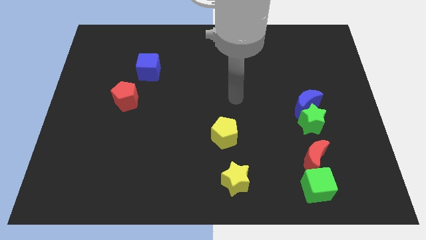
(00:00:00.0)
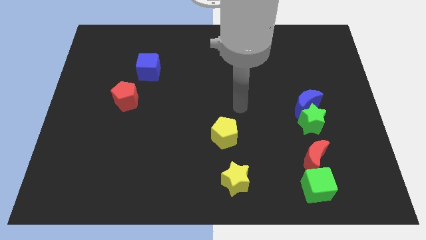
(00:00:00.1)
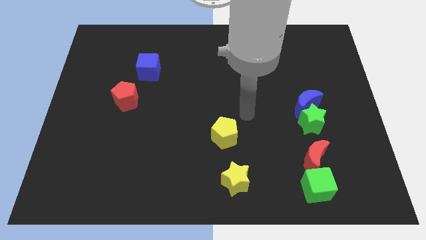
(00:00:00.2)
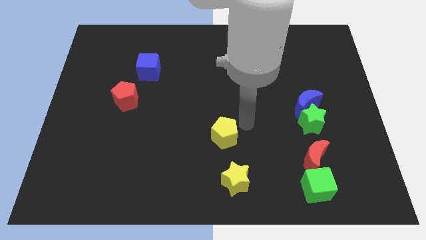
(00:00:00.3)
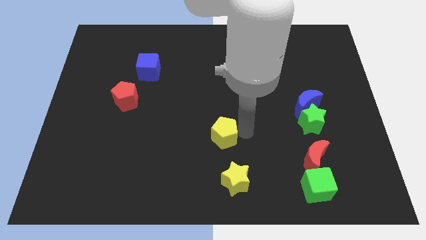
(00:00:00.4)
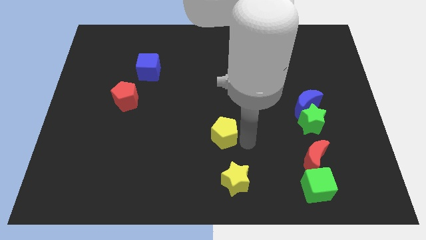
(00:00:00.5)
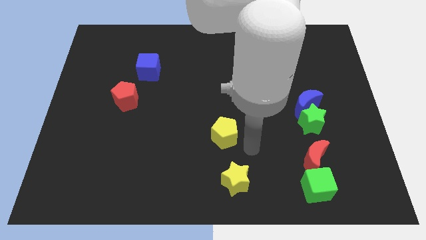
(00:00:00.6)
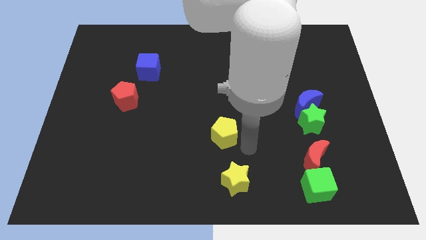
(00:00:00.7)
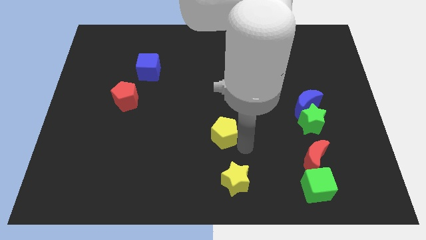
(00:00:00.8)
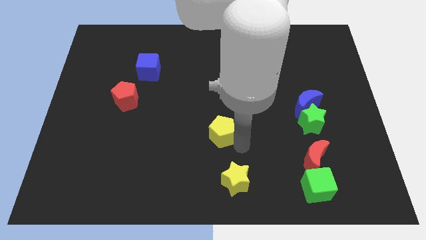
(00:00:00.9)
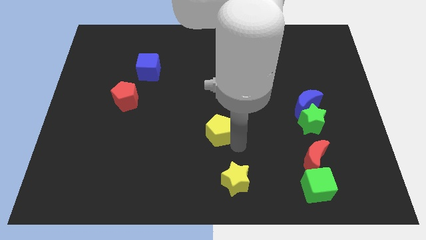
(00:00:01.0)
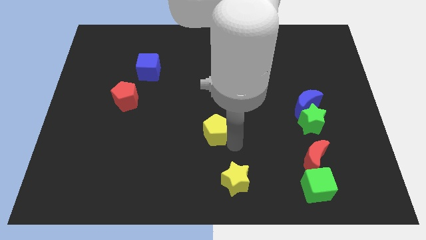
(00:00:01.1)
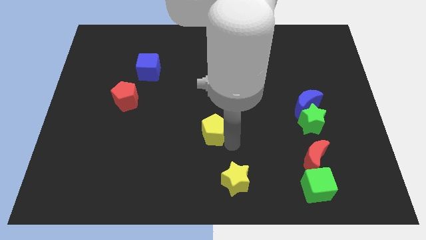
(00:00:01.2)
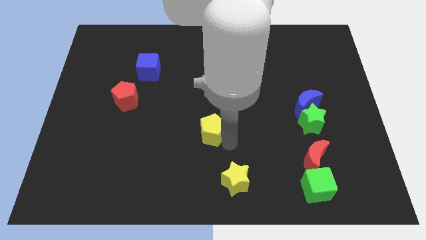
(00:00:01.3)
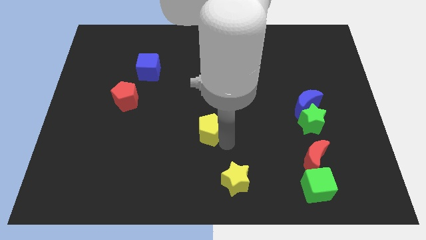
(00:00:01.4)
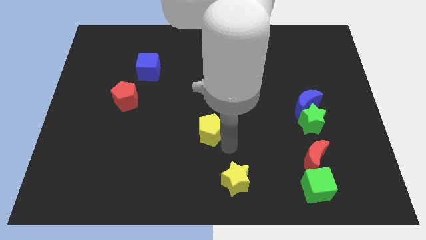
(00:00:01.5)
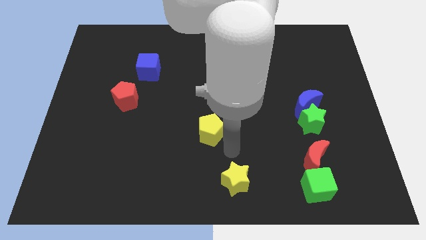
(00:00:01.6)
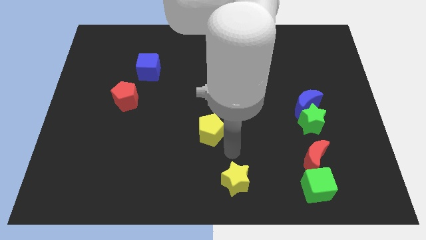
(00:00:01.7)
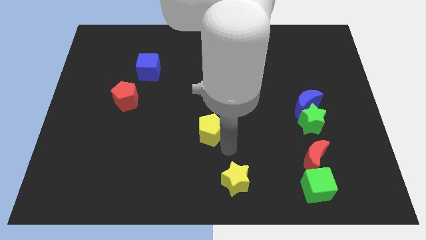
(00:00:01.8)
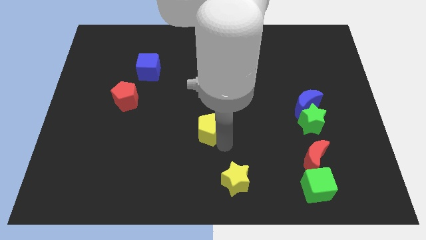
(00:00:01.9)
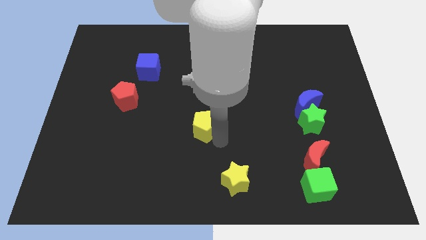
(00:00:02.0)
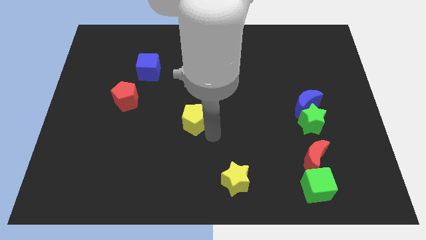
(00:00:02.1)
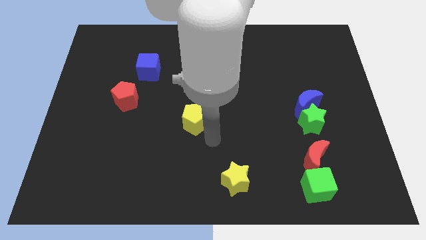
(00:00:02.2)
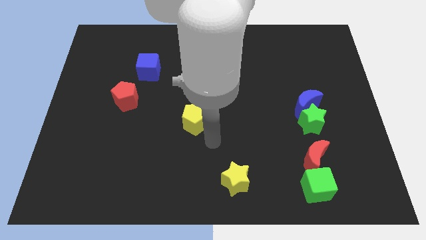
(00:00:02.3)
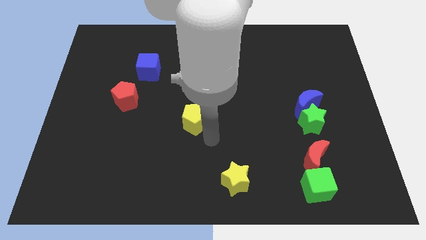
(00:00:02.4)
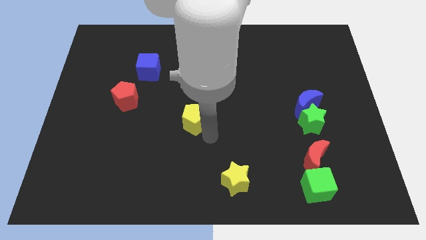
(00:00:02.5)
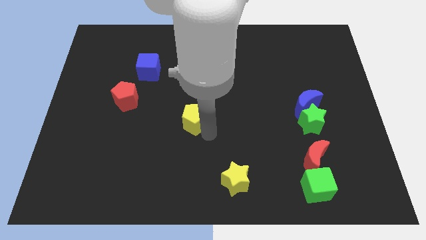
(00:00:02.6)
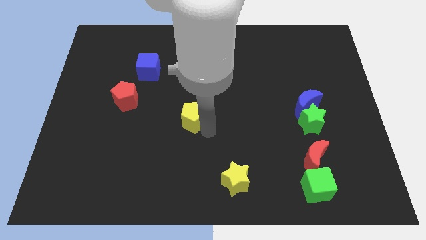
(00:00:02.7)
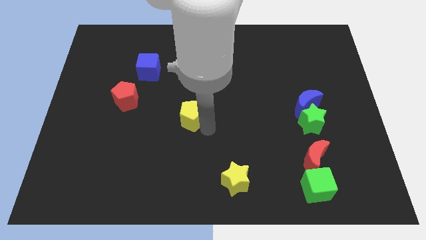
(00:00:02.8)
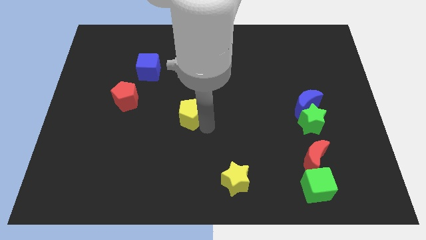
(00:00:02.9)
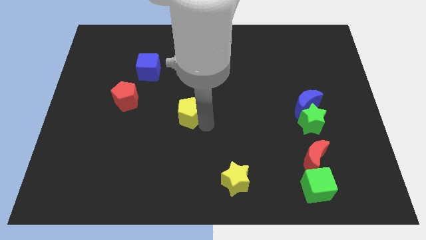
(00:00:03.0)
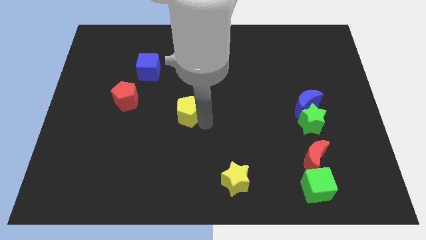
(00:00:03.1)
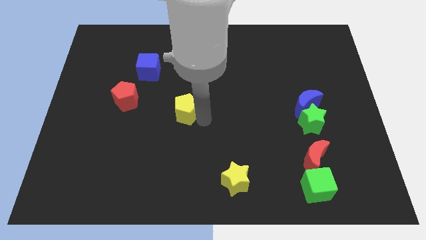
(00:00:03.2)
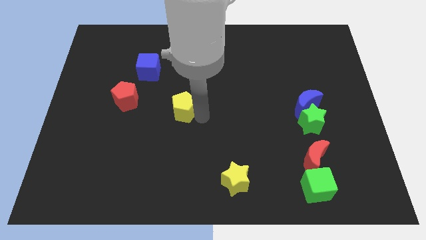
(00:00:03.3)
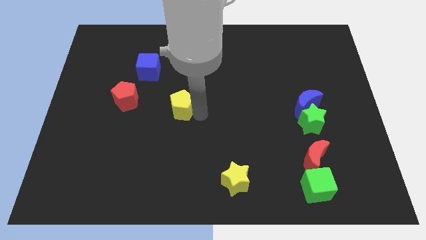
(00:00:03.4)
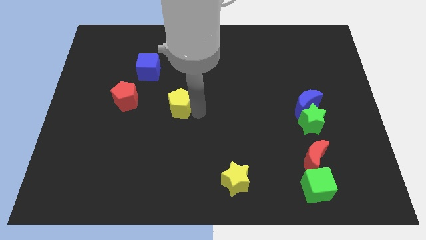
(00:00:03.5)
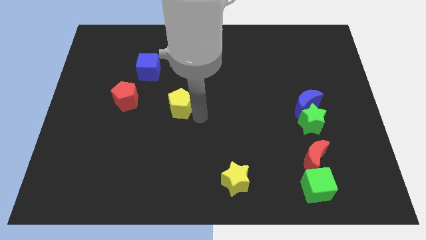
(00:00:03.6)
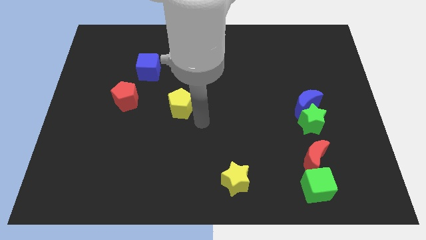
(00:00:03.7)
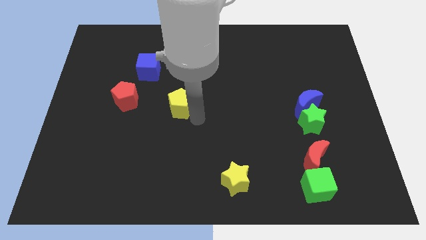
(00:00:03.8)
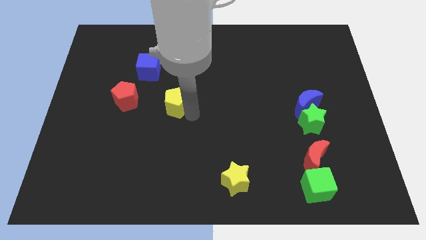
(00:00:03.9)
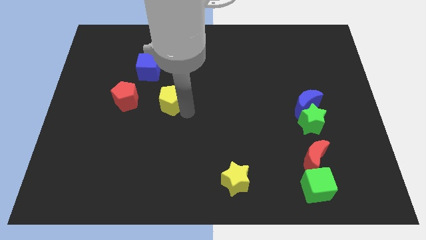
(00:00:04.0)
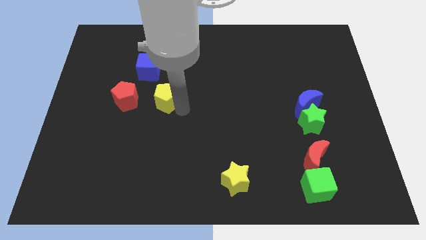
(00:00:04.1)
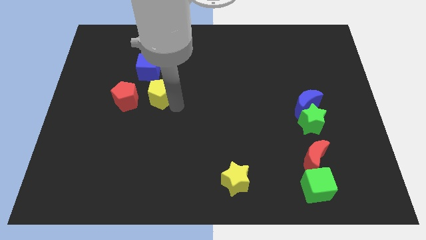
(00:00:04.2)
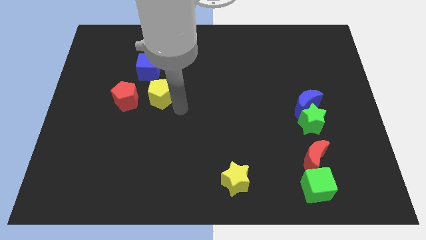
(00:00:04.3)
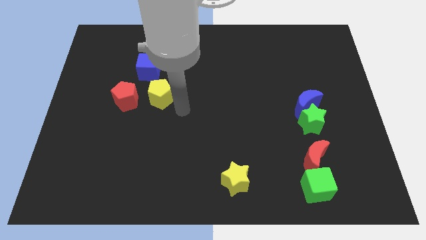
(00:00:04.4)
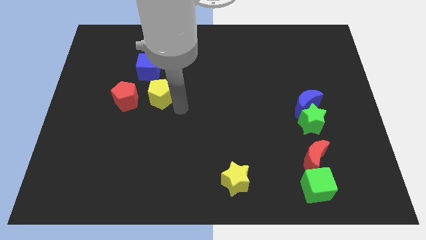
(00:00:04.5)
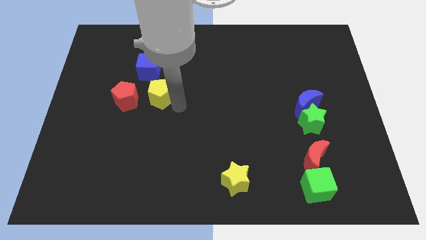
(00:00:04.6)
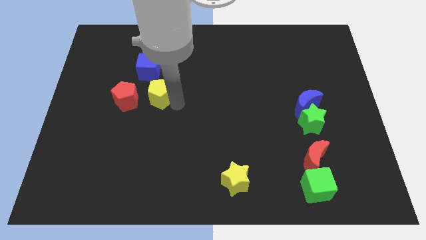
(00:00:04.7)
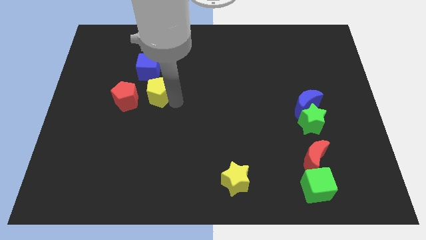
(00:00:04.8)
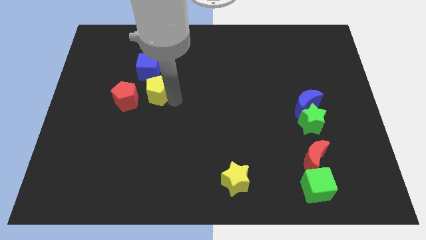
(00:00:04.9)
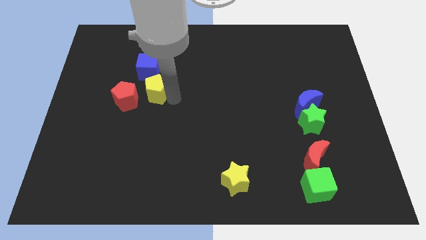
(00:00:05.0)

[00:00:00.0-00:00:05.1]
slide the yellow pentagon up and left

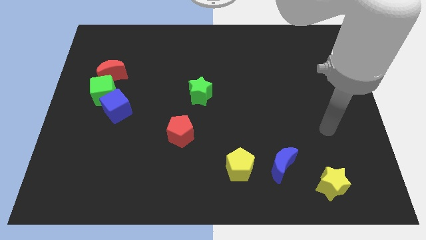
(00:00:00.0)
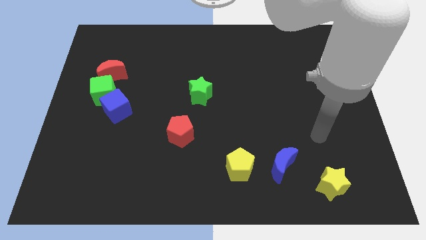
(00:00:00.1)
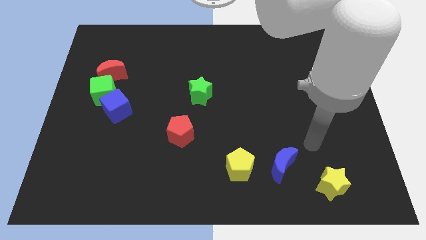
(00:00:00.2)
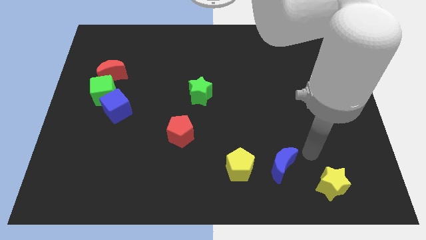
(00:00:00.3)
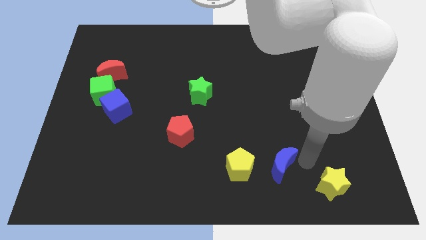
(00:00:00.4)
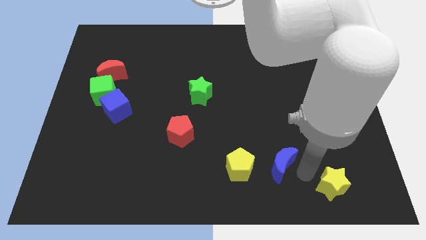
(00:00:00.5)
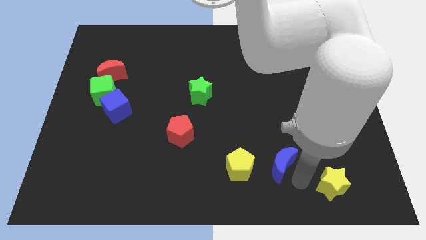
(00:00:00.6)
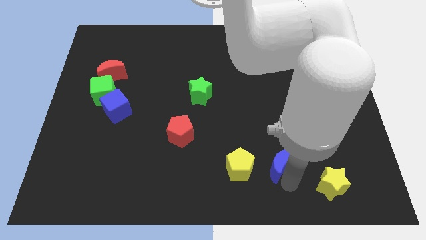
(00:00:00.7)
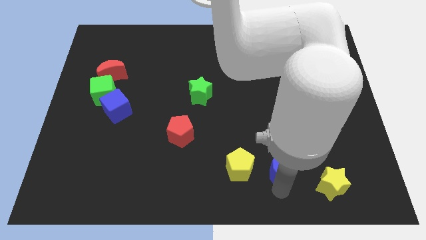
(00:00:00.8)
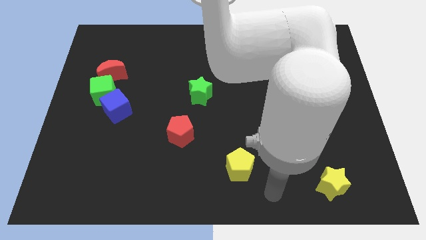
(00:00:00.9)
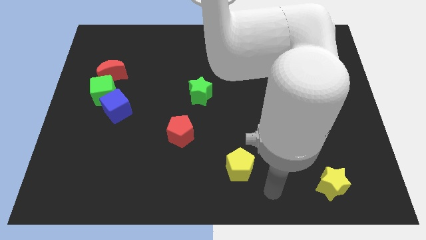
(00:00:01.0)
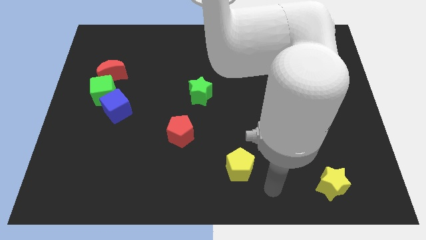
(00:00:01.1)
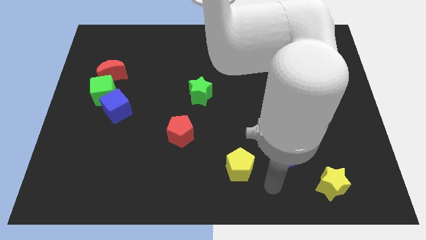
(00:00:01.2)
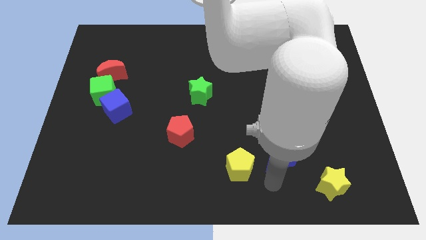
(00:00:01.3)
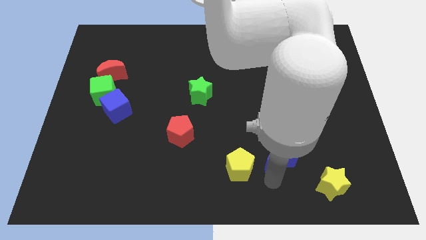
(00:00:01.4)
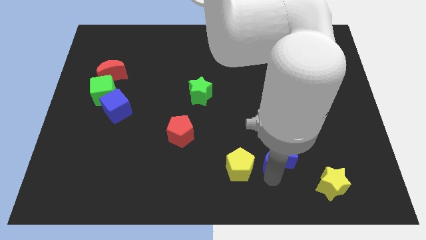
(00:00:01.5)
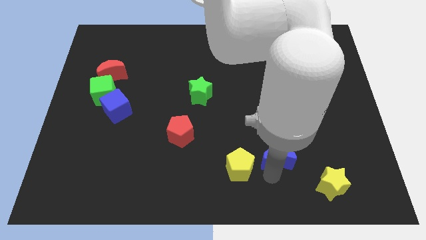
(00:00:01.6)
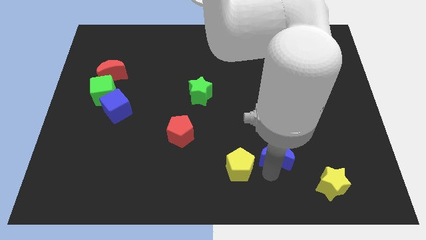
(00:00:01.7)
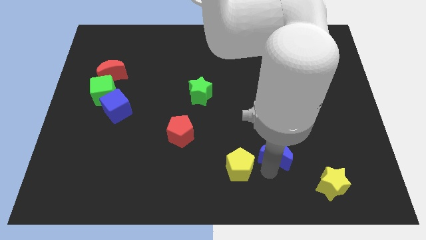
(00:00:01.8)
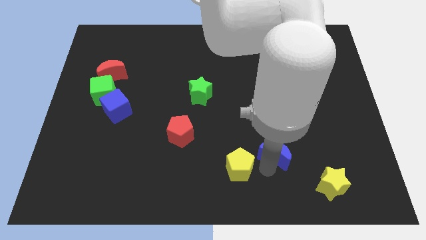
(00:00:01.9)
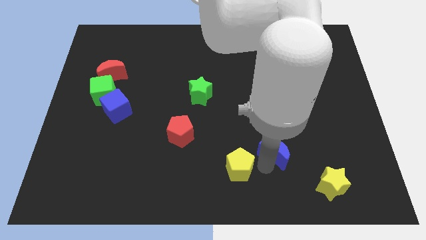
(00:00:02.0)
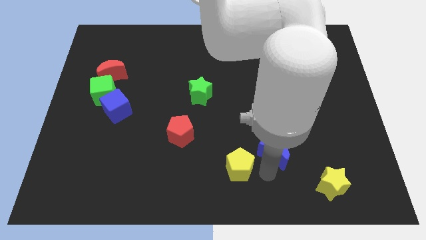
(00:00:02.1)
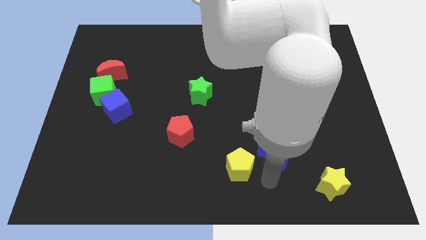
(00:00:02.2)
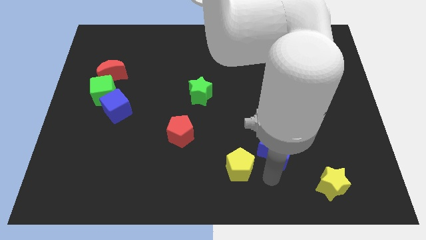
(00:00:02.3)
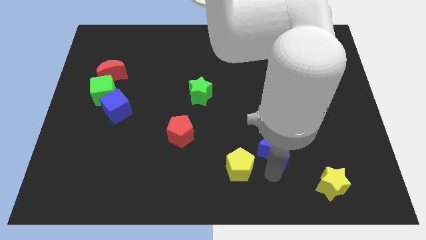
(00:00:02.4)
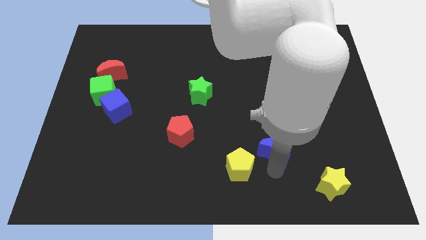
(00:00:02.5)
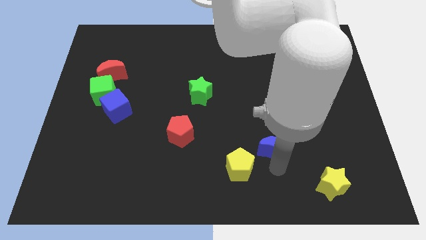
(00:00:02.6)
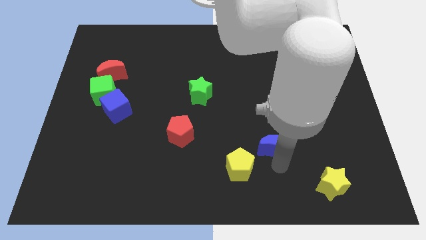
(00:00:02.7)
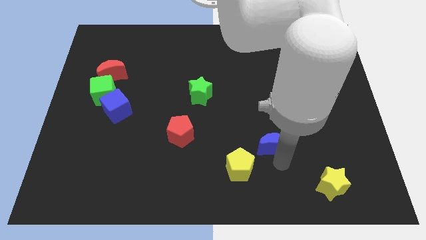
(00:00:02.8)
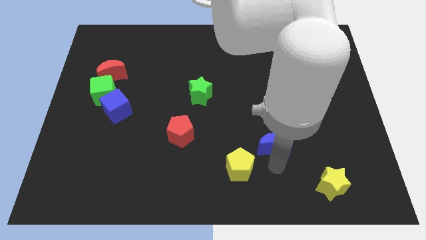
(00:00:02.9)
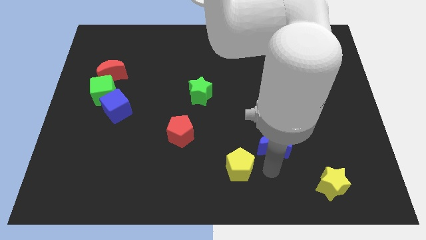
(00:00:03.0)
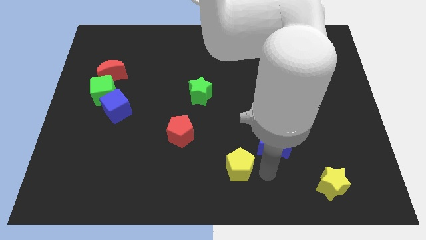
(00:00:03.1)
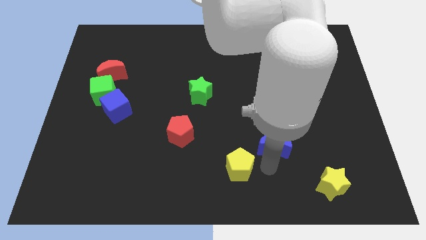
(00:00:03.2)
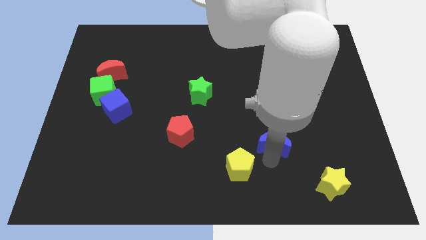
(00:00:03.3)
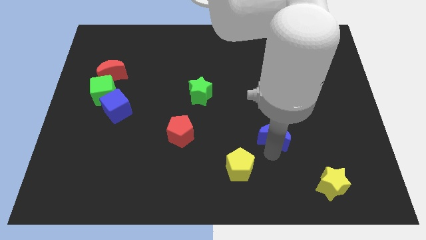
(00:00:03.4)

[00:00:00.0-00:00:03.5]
push the blue moon somewhat upwards
